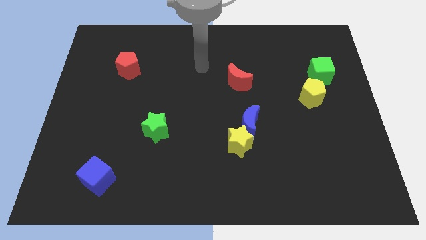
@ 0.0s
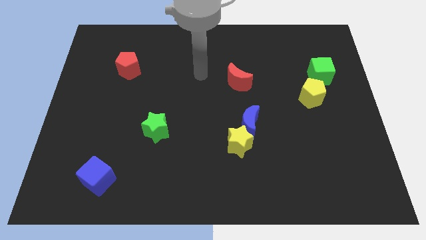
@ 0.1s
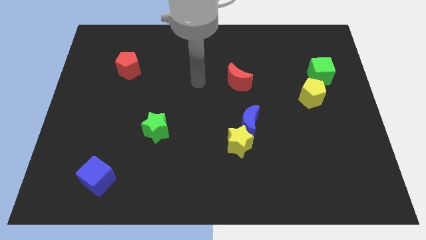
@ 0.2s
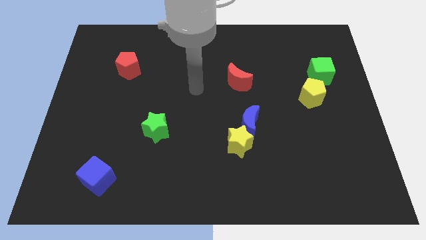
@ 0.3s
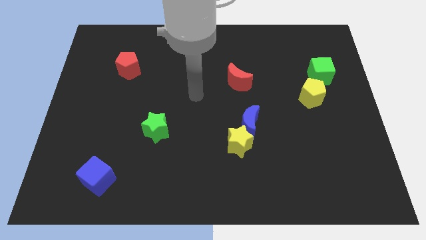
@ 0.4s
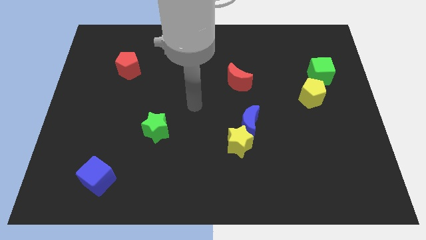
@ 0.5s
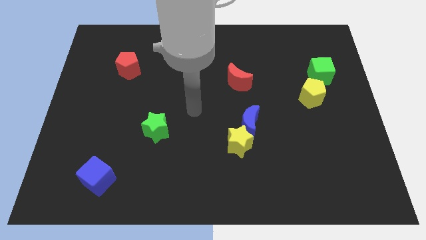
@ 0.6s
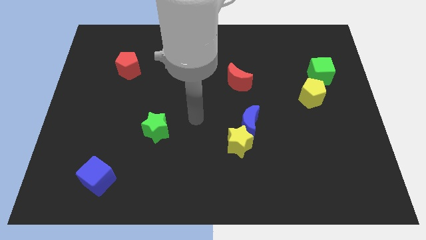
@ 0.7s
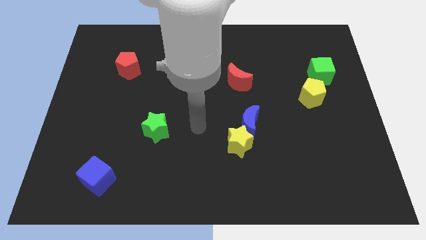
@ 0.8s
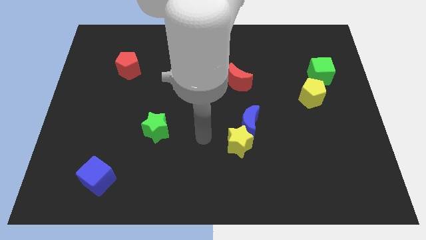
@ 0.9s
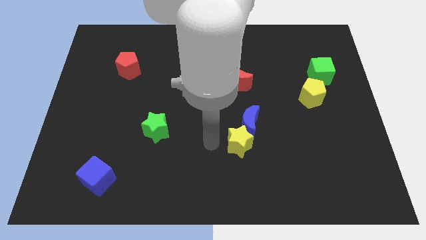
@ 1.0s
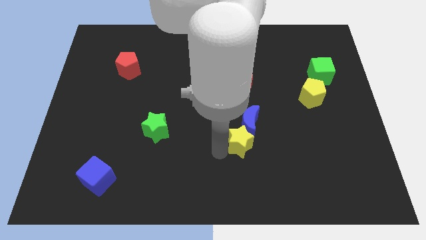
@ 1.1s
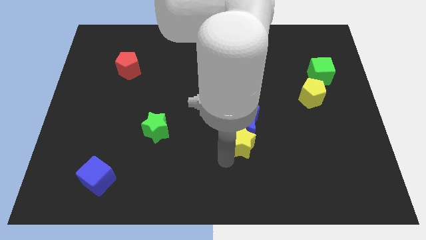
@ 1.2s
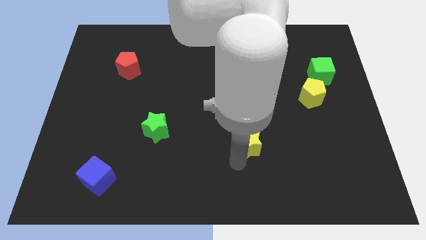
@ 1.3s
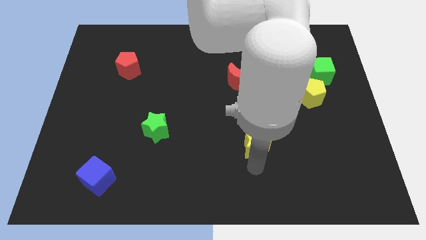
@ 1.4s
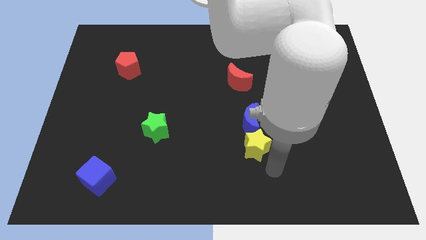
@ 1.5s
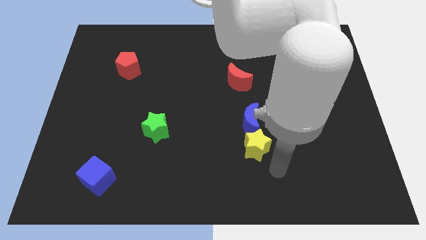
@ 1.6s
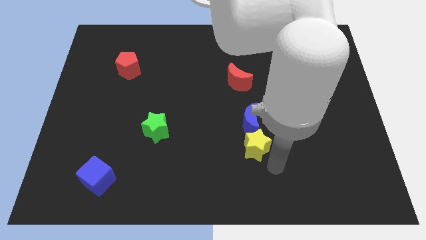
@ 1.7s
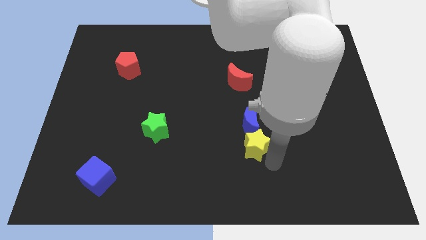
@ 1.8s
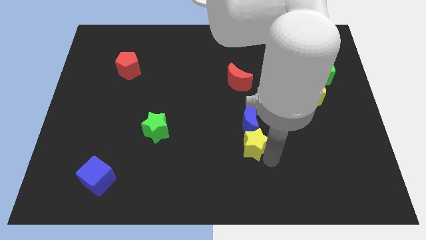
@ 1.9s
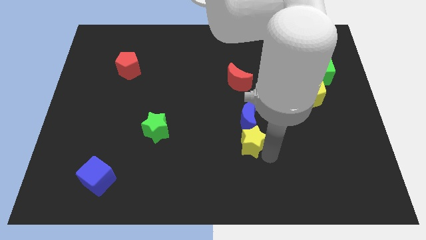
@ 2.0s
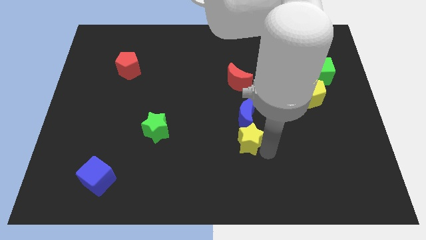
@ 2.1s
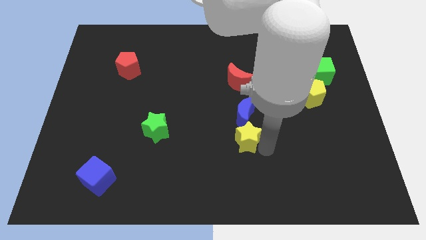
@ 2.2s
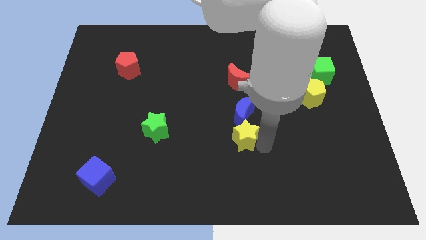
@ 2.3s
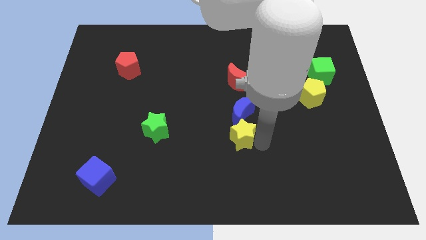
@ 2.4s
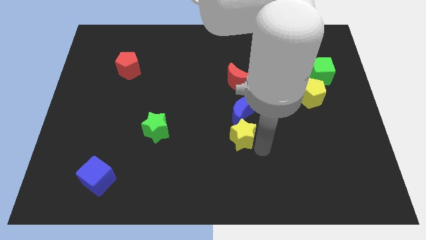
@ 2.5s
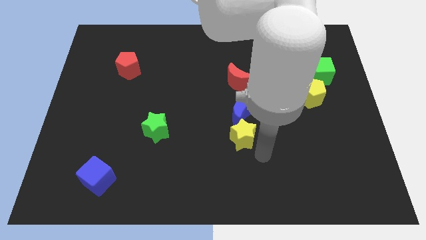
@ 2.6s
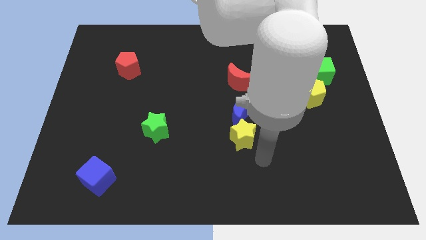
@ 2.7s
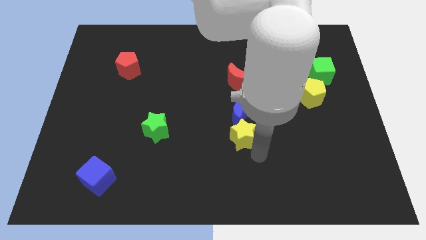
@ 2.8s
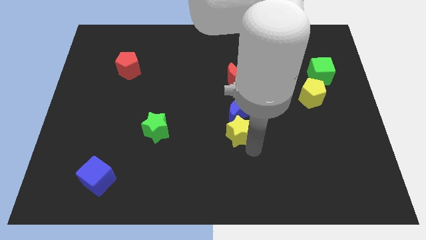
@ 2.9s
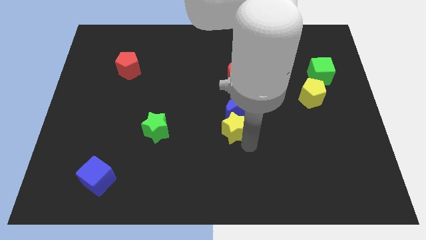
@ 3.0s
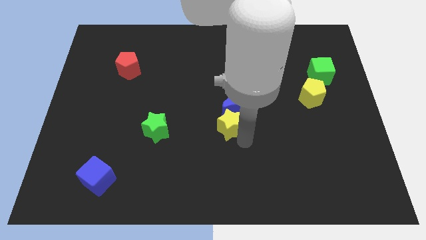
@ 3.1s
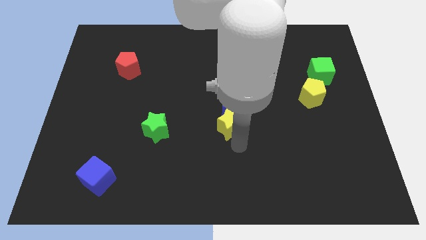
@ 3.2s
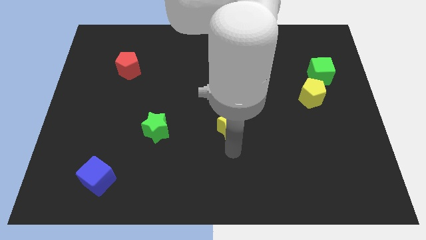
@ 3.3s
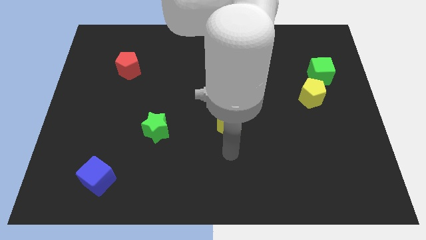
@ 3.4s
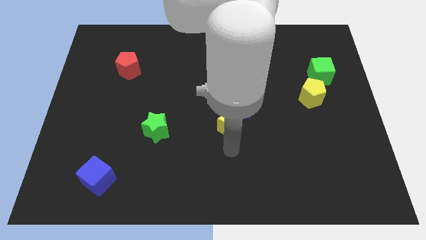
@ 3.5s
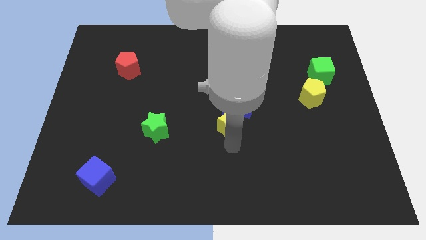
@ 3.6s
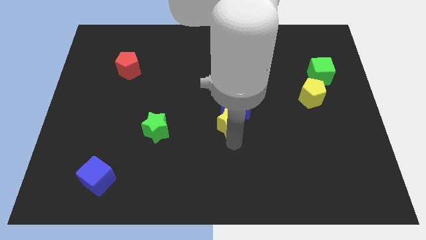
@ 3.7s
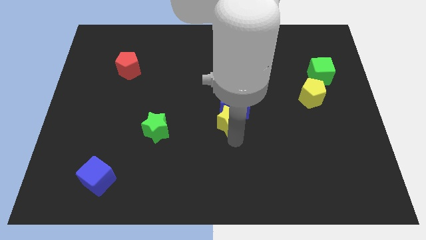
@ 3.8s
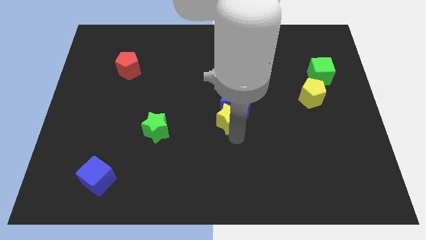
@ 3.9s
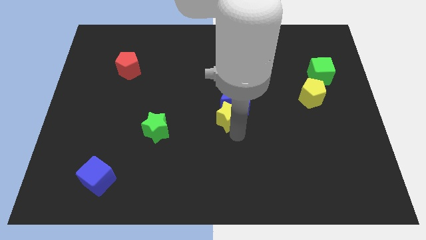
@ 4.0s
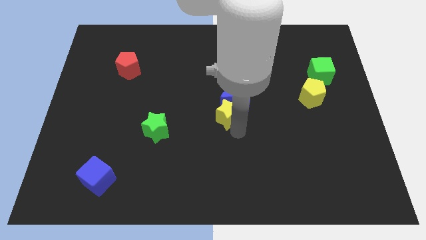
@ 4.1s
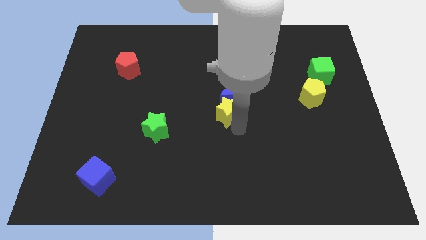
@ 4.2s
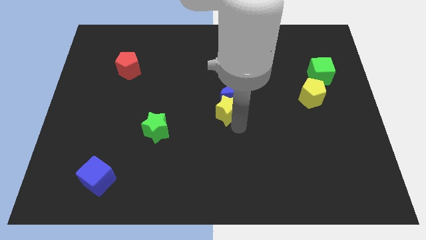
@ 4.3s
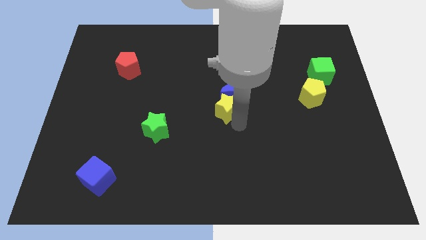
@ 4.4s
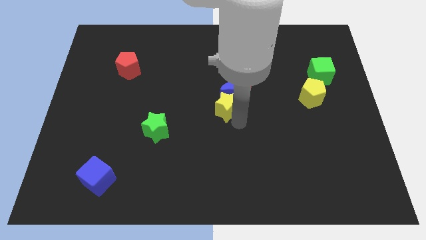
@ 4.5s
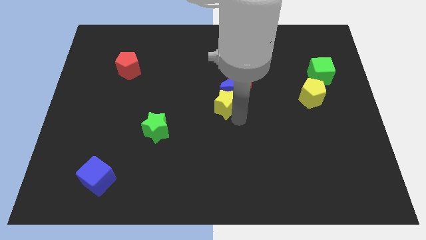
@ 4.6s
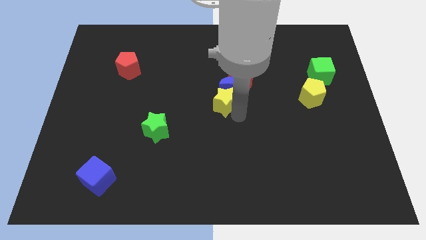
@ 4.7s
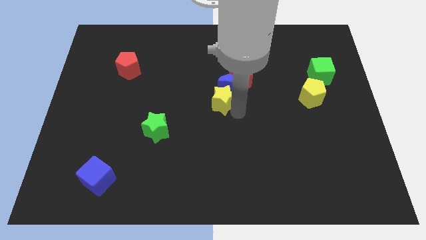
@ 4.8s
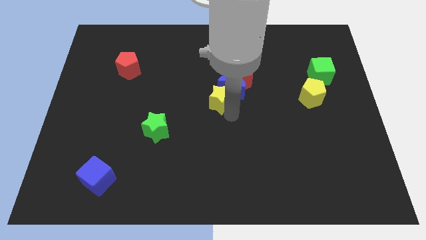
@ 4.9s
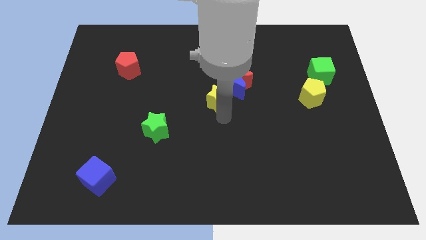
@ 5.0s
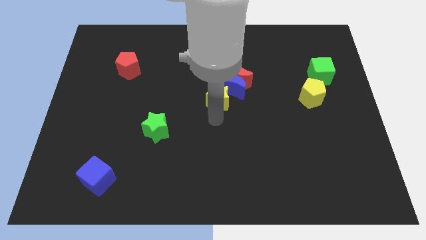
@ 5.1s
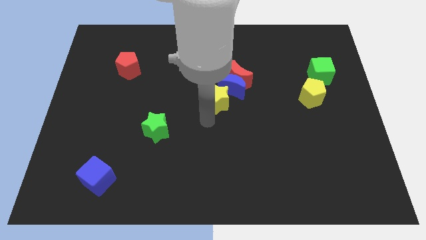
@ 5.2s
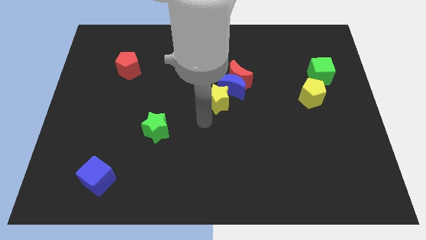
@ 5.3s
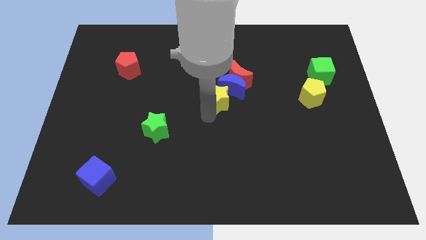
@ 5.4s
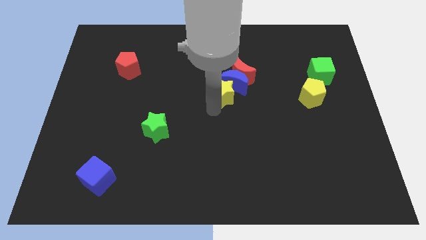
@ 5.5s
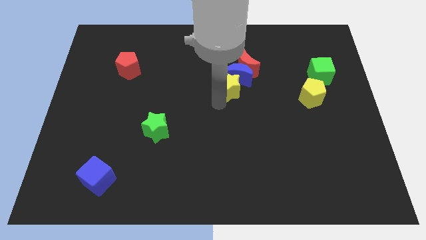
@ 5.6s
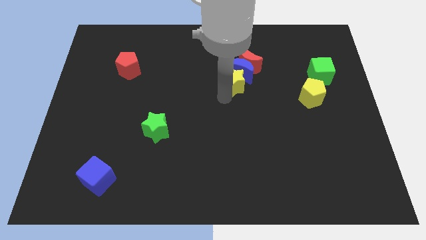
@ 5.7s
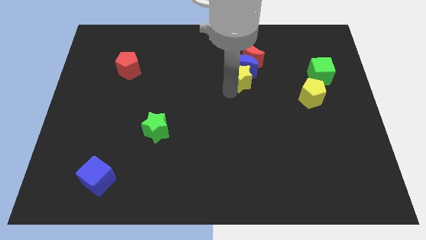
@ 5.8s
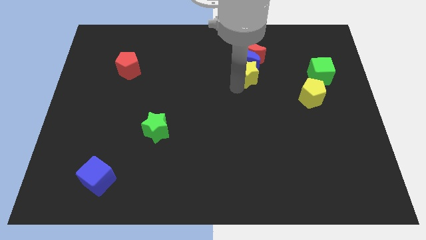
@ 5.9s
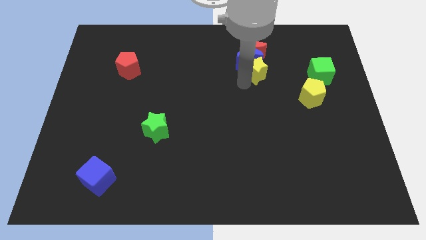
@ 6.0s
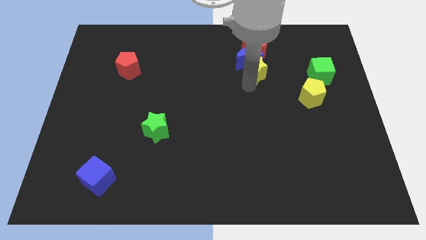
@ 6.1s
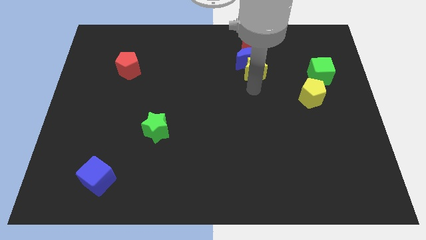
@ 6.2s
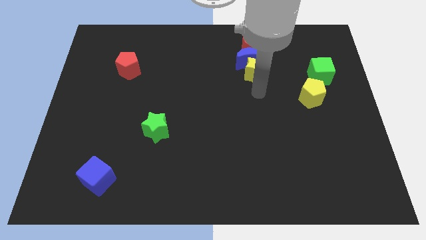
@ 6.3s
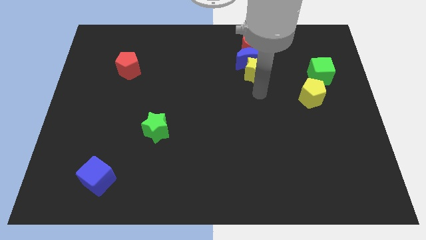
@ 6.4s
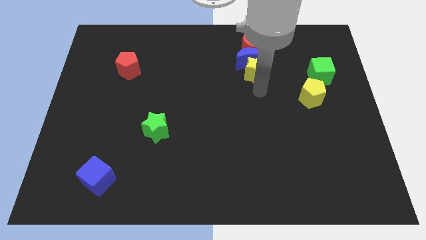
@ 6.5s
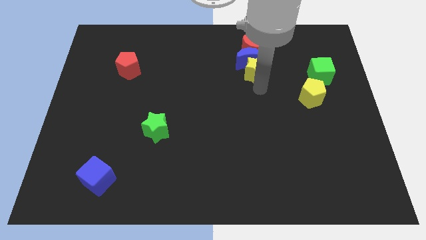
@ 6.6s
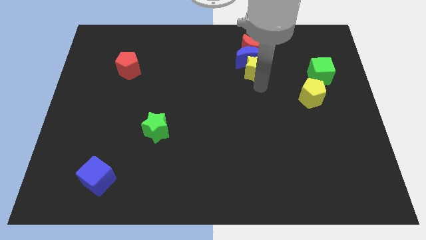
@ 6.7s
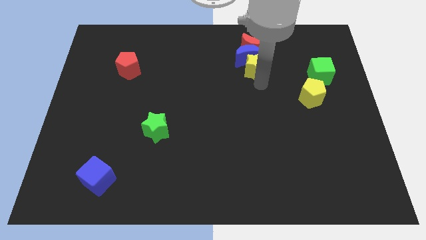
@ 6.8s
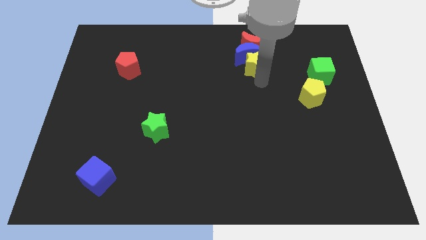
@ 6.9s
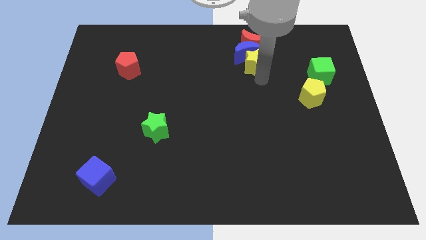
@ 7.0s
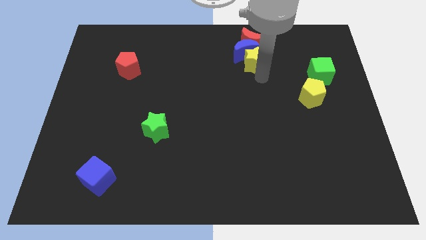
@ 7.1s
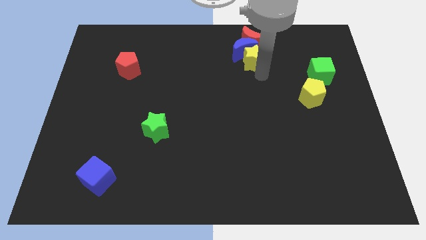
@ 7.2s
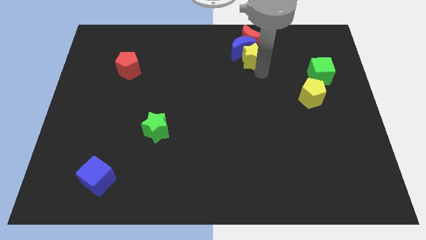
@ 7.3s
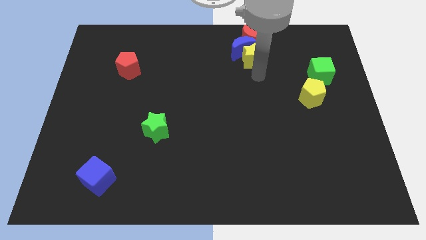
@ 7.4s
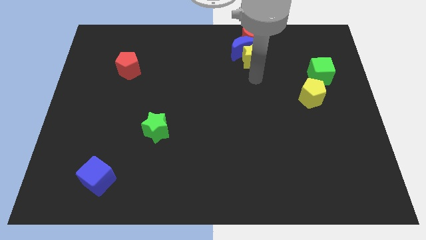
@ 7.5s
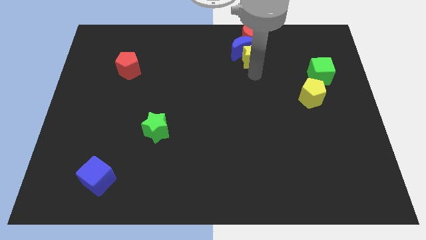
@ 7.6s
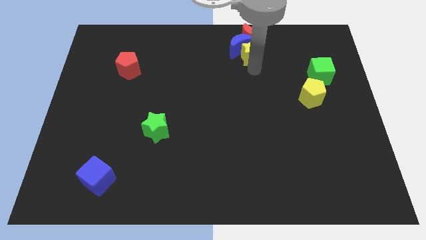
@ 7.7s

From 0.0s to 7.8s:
move the yellow star towards the red moon
